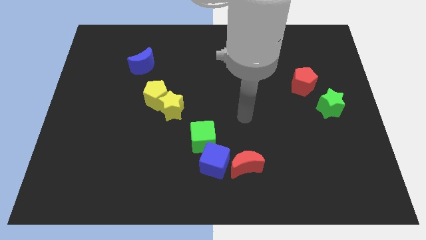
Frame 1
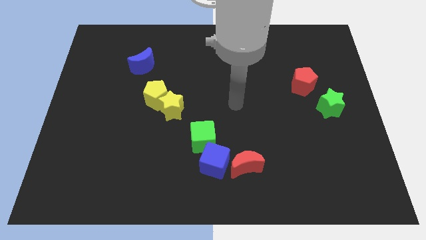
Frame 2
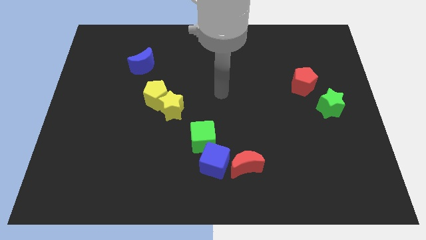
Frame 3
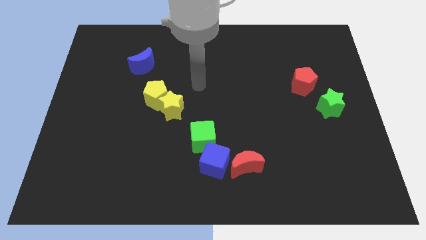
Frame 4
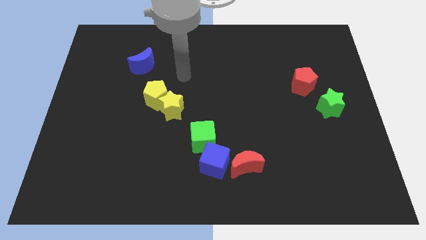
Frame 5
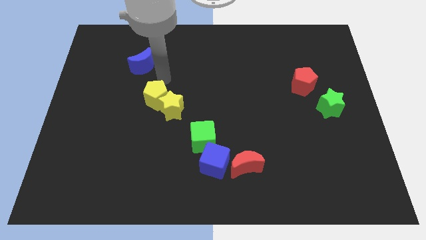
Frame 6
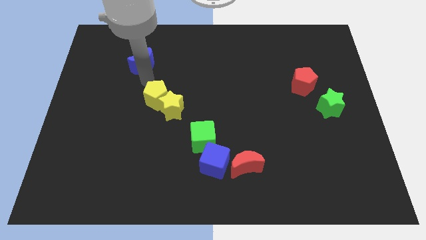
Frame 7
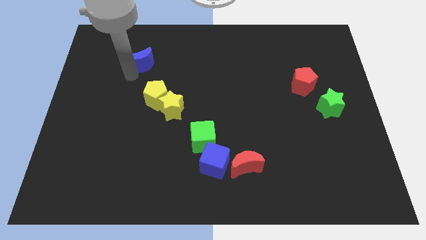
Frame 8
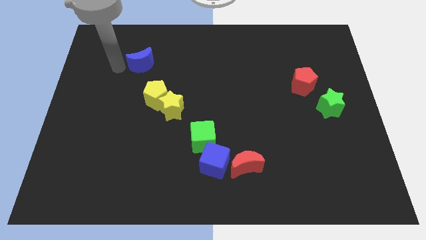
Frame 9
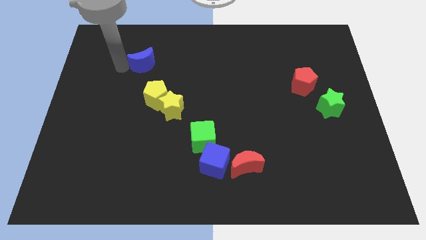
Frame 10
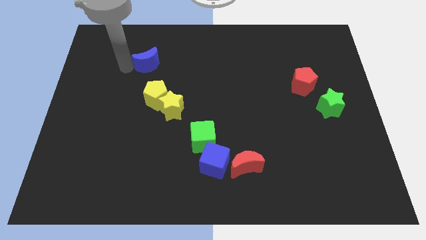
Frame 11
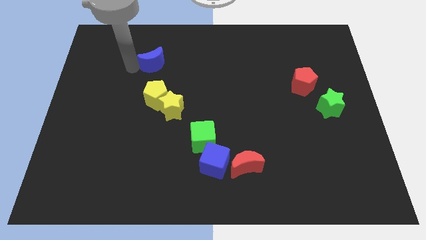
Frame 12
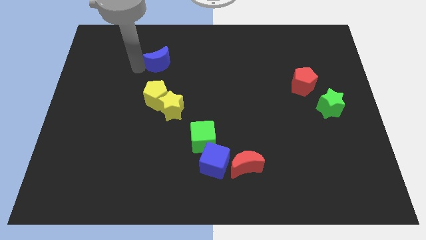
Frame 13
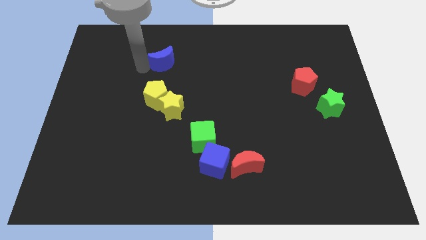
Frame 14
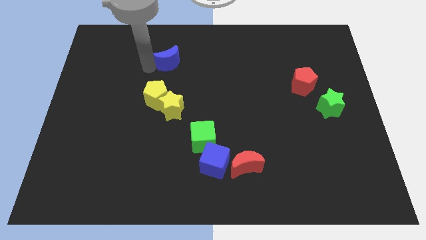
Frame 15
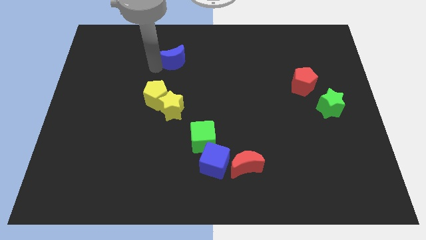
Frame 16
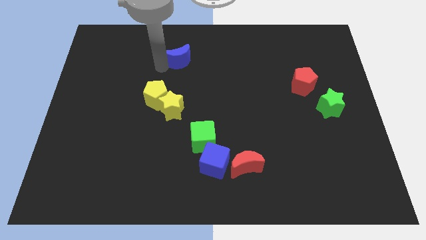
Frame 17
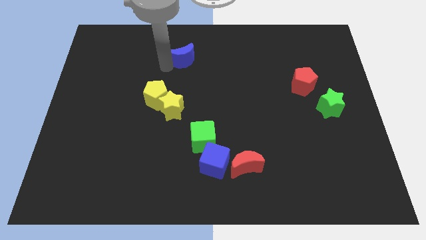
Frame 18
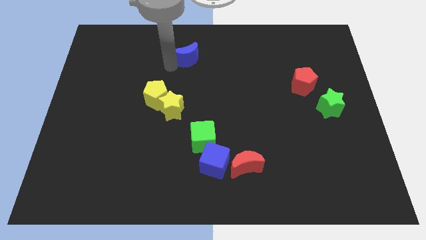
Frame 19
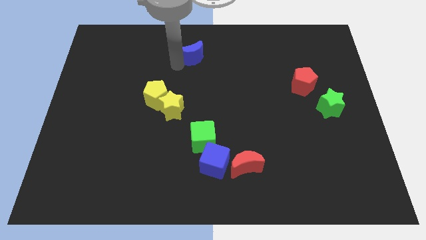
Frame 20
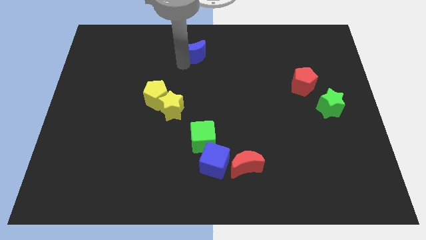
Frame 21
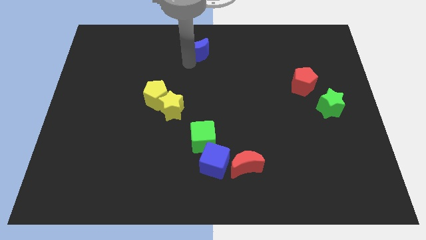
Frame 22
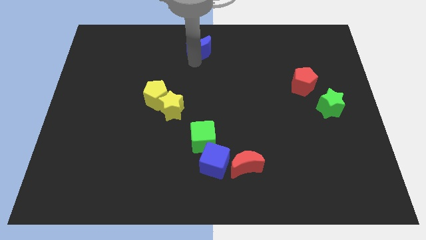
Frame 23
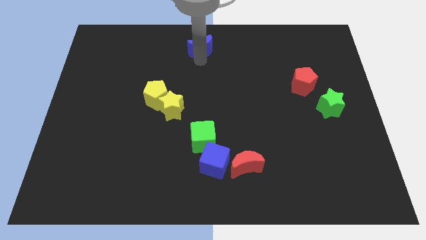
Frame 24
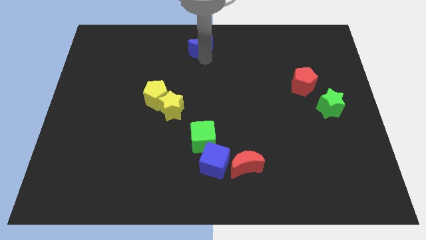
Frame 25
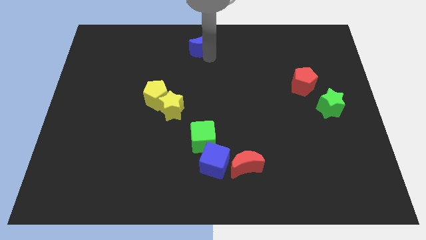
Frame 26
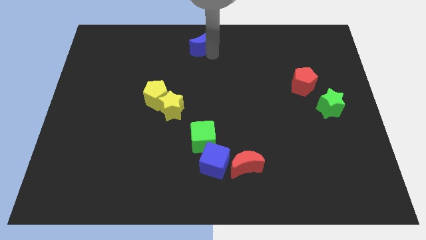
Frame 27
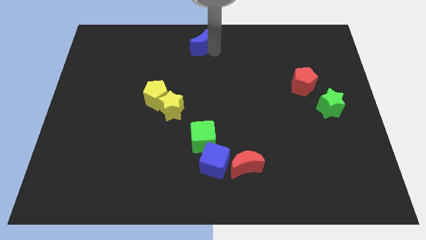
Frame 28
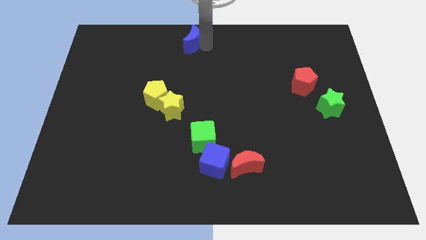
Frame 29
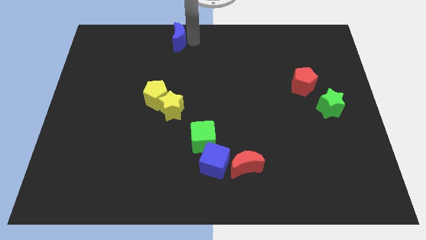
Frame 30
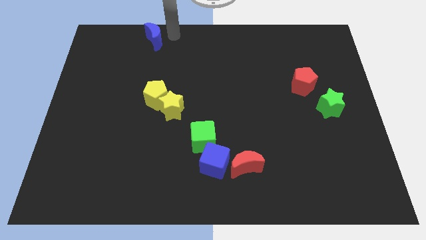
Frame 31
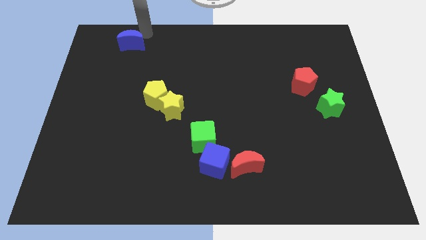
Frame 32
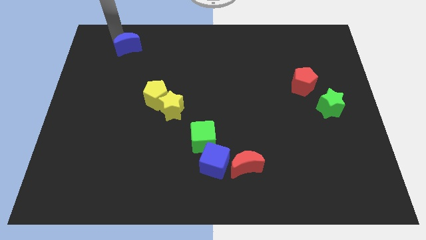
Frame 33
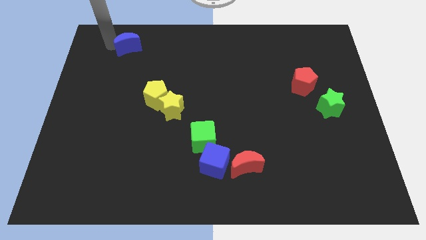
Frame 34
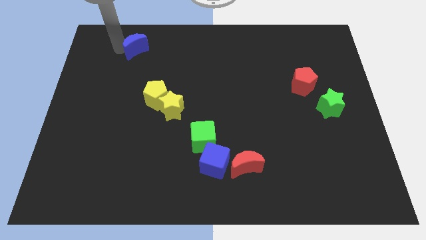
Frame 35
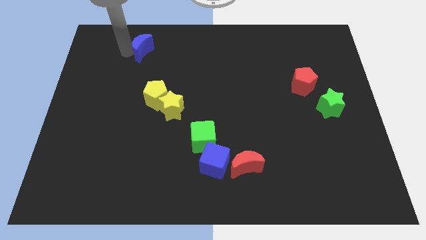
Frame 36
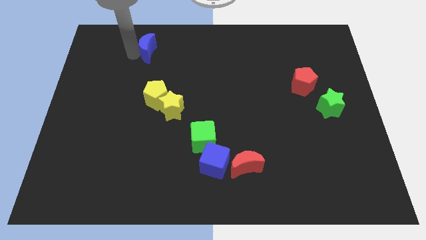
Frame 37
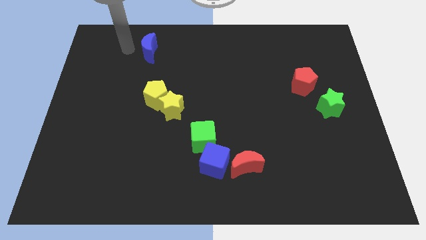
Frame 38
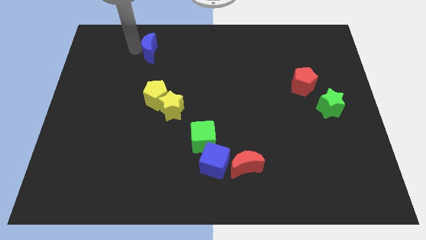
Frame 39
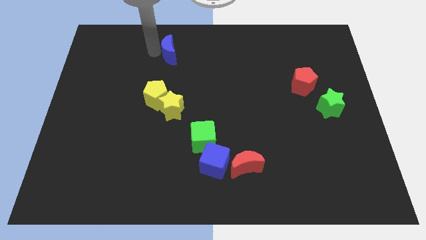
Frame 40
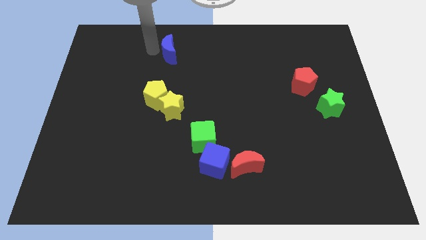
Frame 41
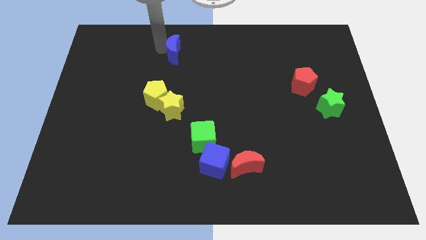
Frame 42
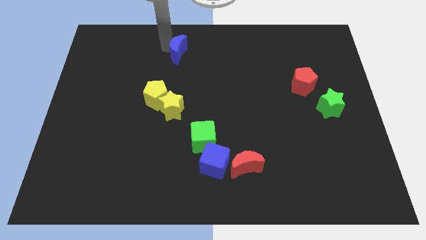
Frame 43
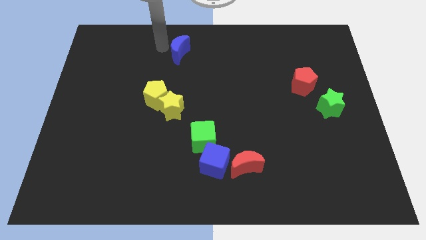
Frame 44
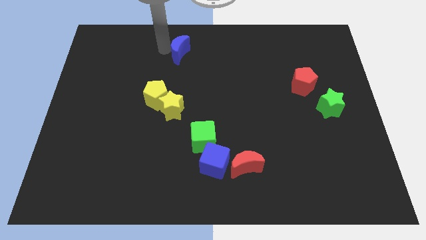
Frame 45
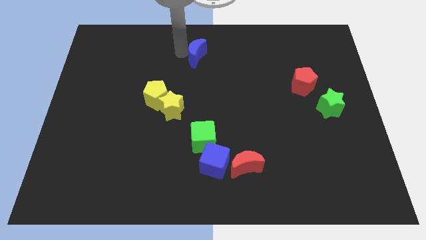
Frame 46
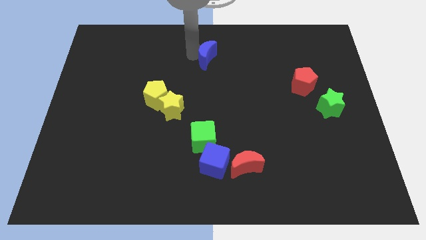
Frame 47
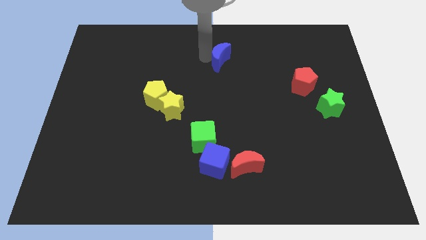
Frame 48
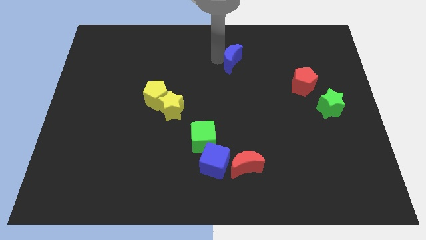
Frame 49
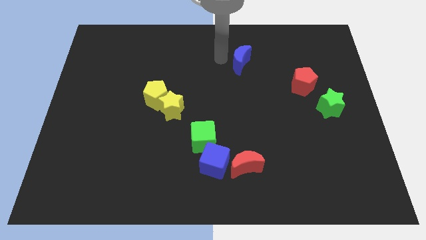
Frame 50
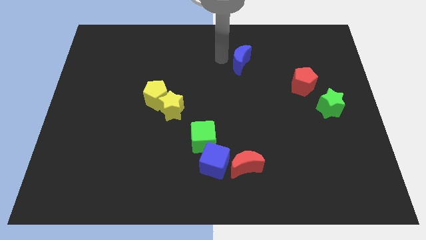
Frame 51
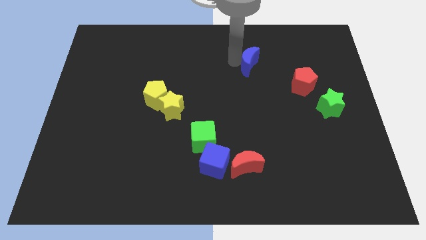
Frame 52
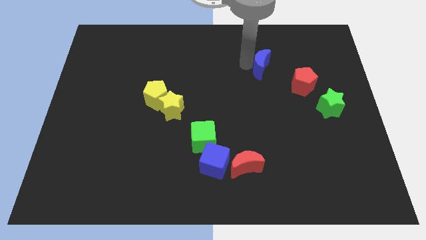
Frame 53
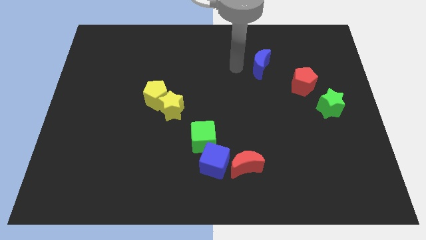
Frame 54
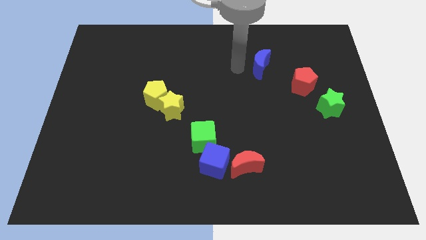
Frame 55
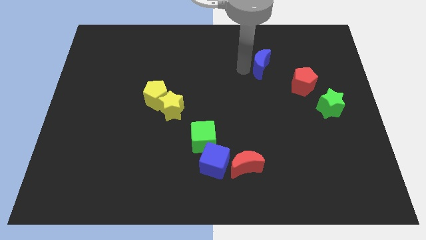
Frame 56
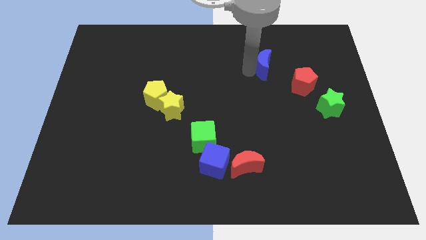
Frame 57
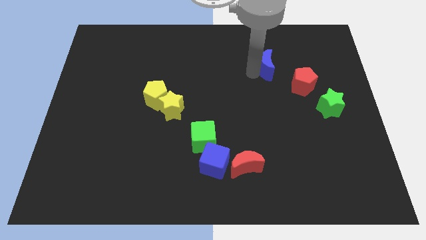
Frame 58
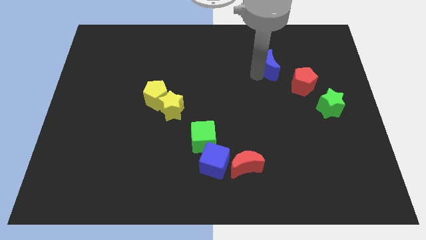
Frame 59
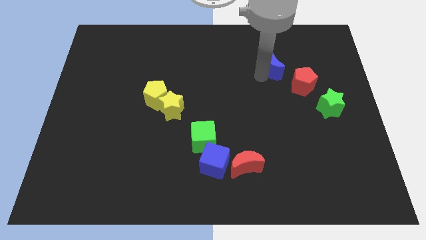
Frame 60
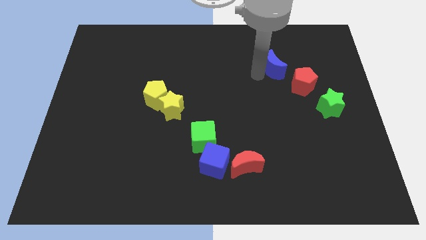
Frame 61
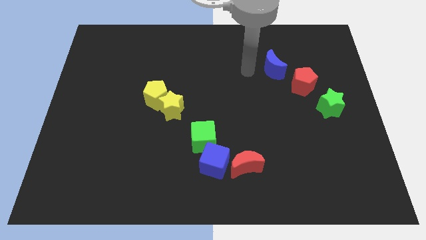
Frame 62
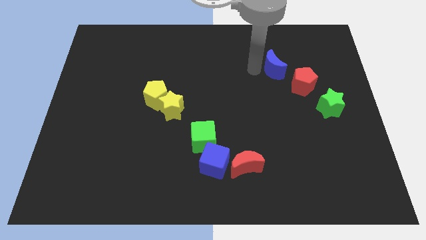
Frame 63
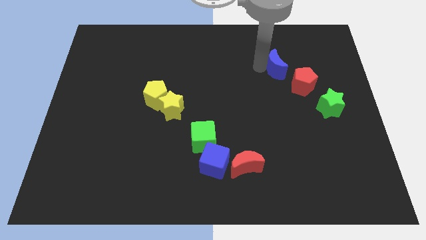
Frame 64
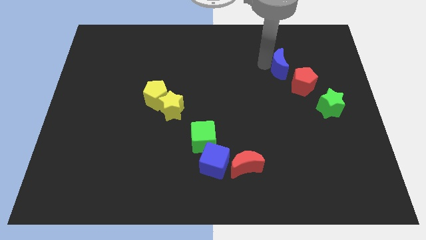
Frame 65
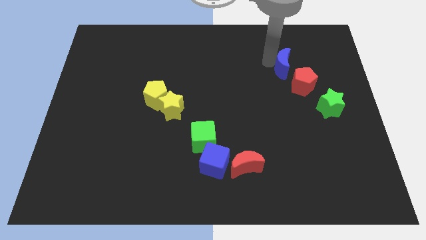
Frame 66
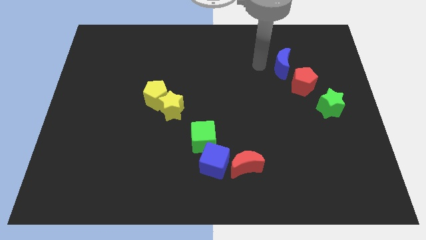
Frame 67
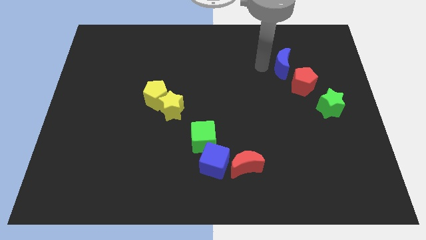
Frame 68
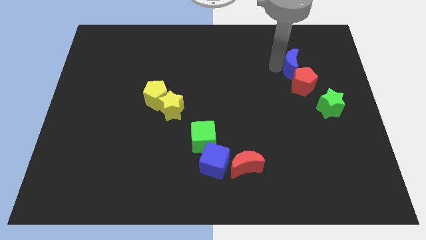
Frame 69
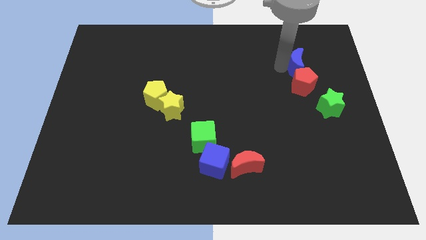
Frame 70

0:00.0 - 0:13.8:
put the blue moon diagonally up and to the right of the red pentagon

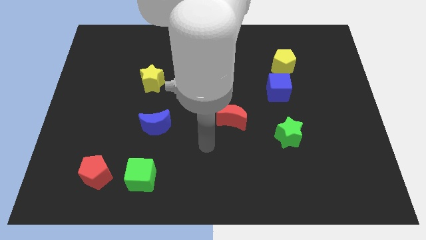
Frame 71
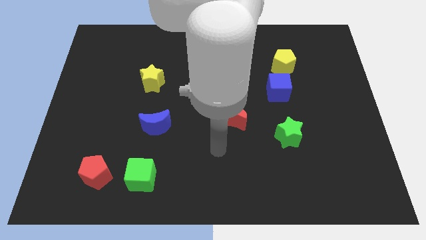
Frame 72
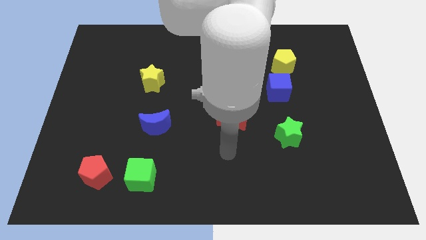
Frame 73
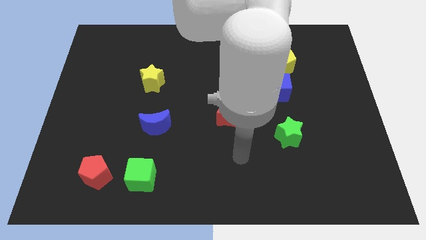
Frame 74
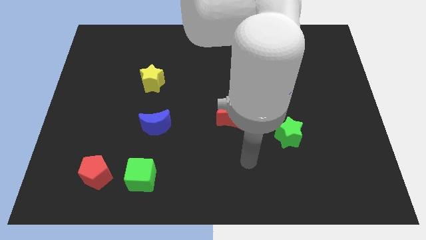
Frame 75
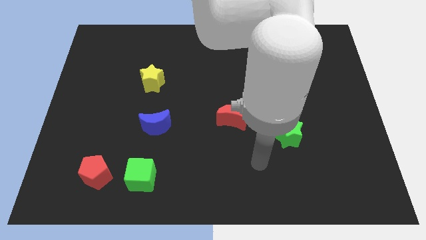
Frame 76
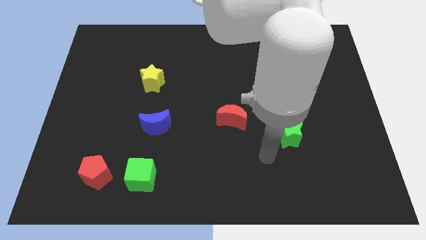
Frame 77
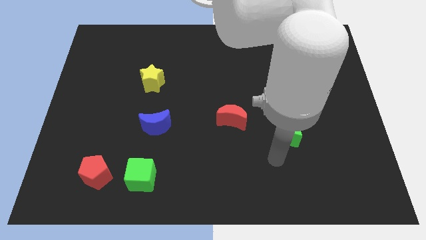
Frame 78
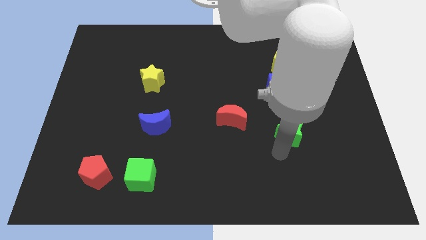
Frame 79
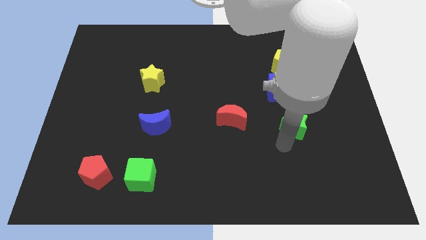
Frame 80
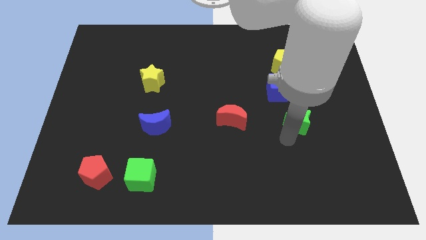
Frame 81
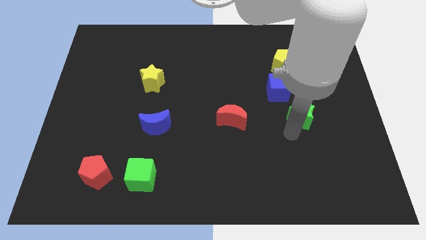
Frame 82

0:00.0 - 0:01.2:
slide the green star diagonally down and to the right of the blue cube
